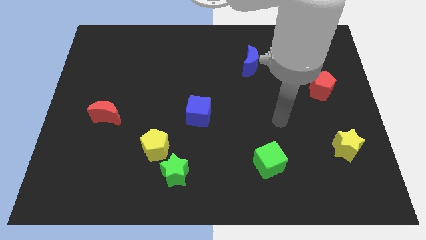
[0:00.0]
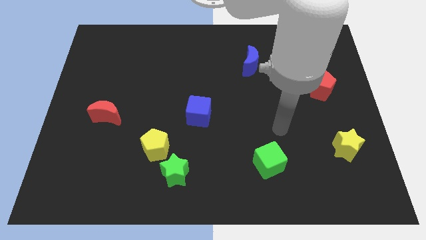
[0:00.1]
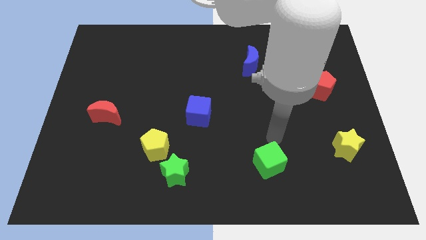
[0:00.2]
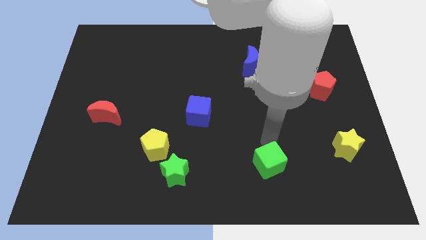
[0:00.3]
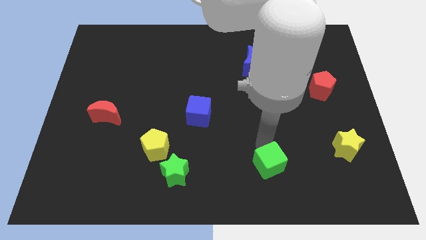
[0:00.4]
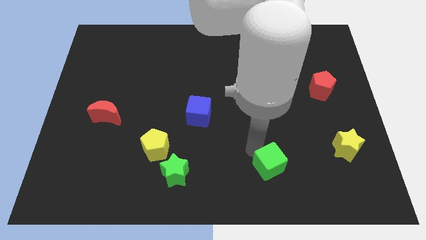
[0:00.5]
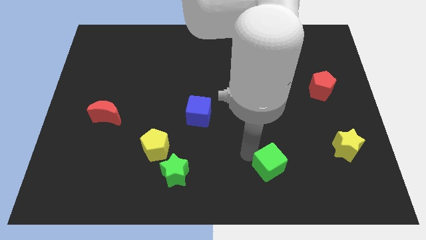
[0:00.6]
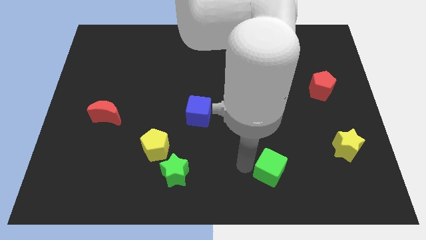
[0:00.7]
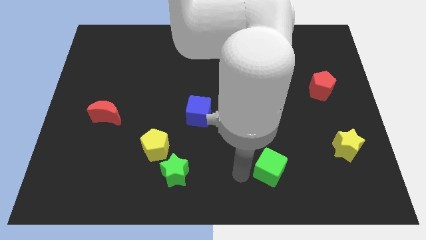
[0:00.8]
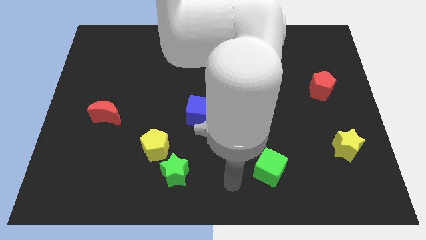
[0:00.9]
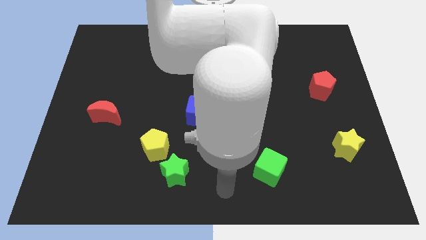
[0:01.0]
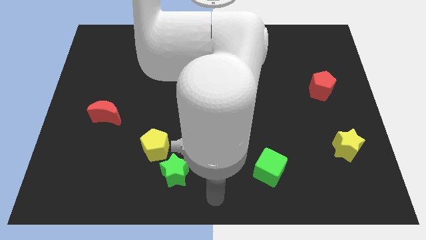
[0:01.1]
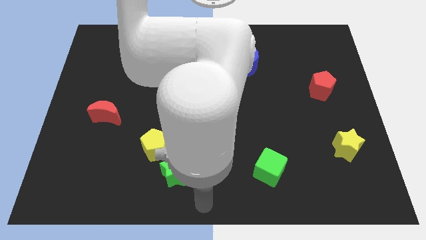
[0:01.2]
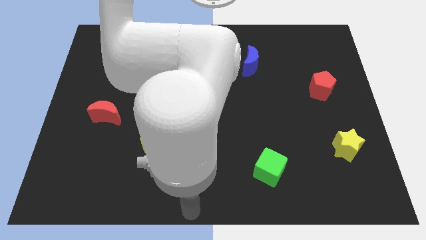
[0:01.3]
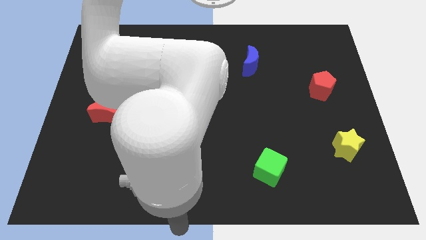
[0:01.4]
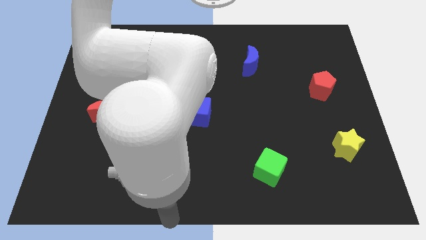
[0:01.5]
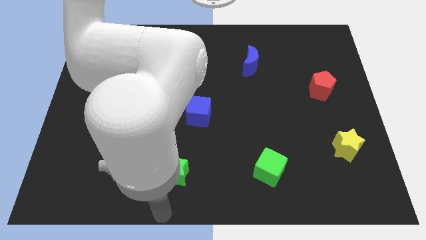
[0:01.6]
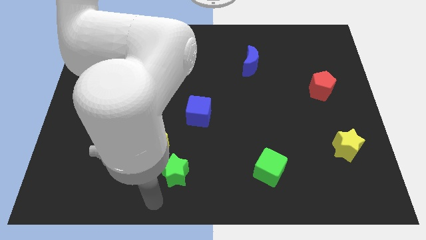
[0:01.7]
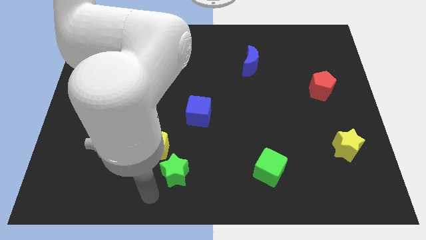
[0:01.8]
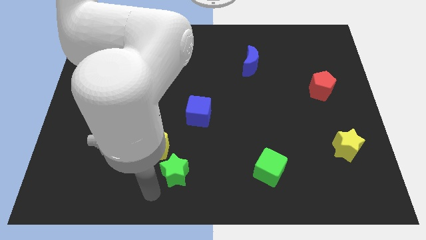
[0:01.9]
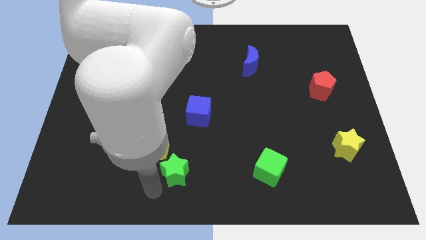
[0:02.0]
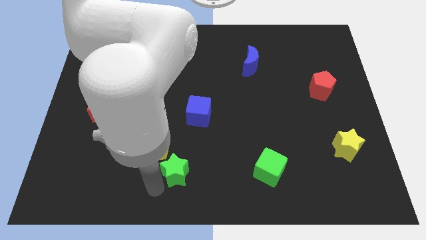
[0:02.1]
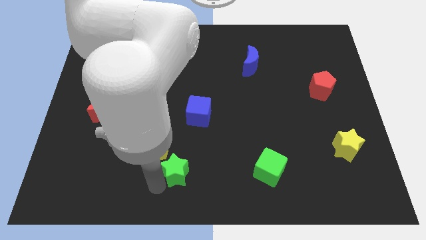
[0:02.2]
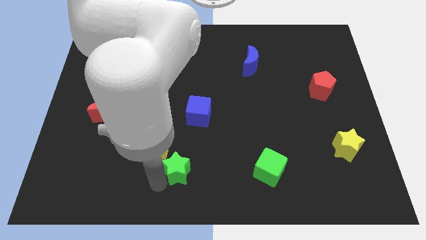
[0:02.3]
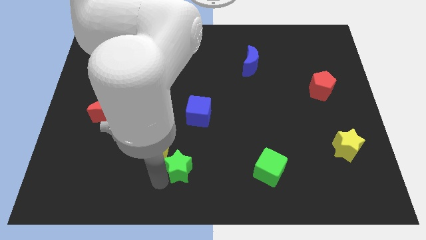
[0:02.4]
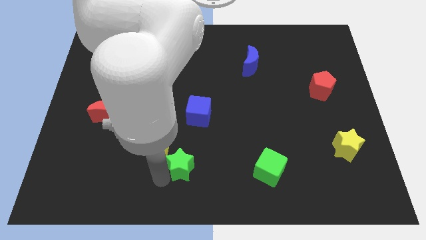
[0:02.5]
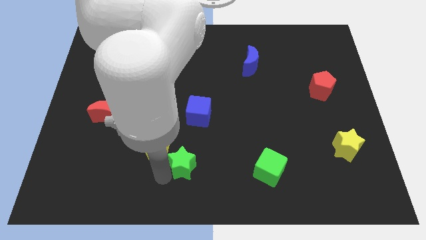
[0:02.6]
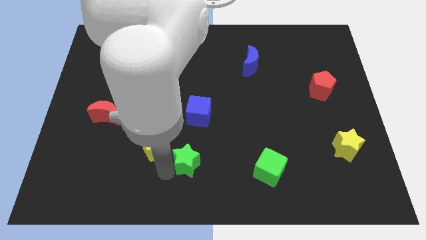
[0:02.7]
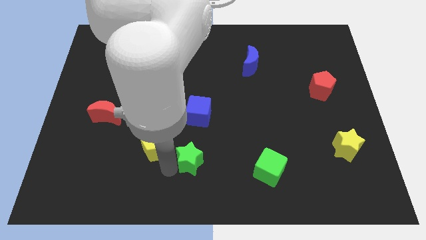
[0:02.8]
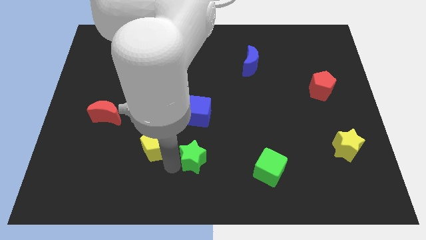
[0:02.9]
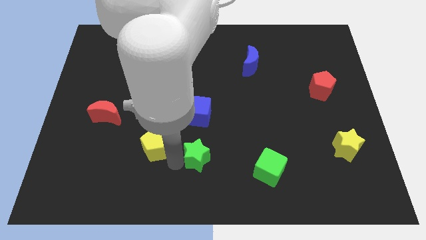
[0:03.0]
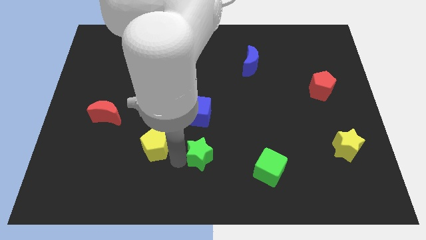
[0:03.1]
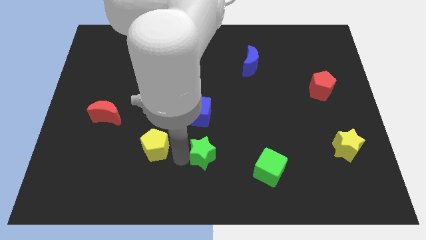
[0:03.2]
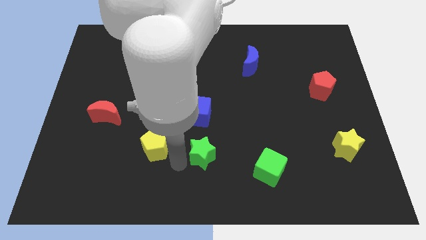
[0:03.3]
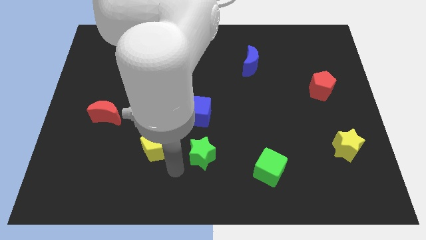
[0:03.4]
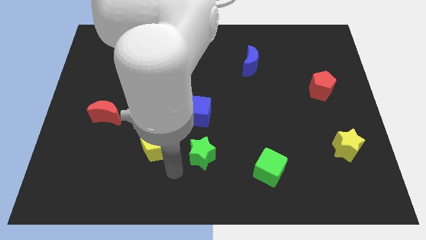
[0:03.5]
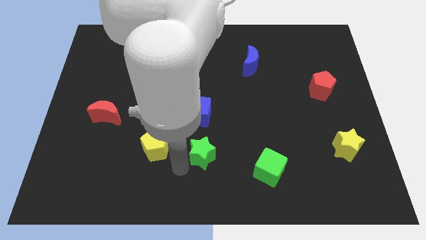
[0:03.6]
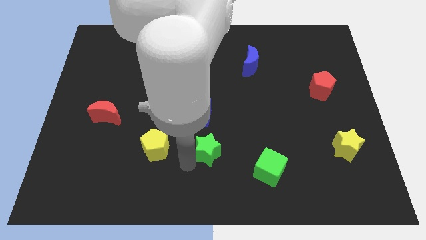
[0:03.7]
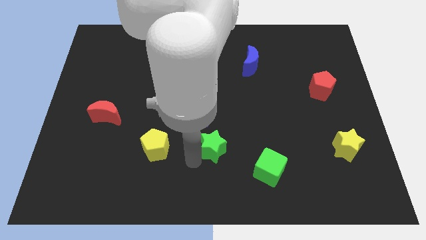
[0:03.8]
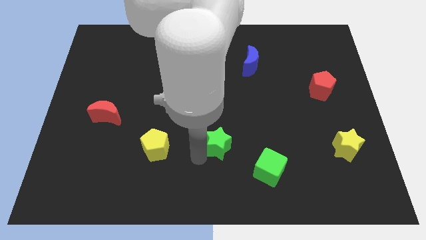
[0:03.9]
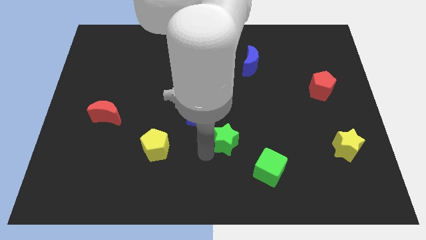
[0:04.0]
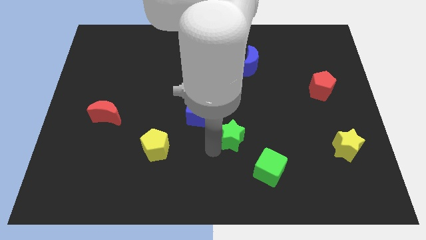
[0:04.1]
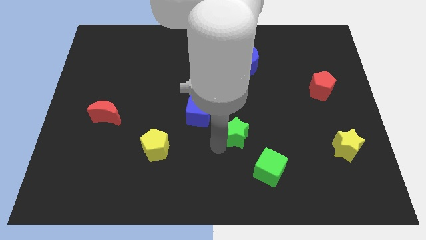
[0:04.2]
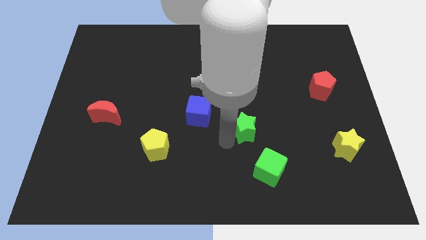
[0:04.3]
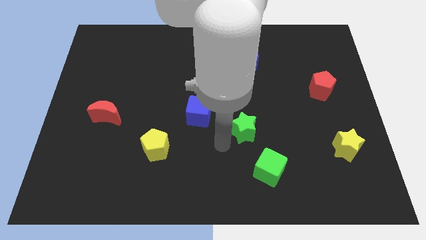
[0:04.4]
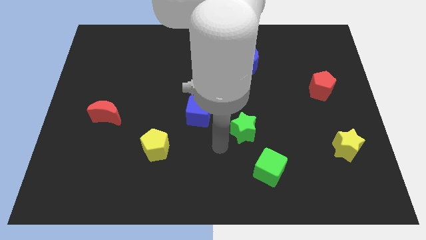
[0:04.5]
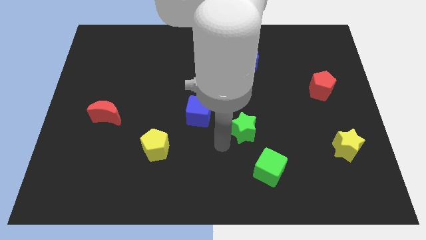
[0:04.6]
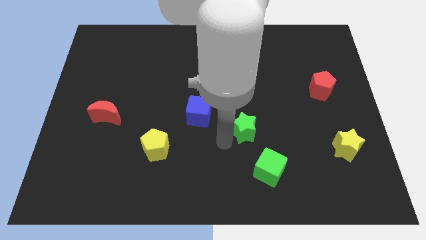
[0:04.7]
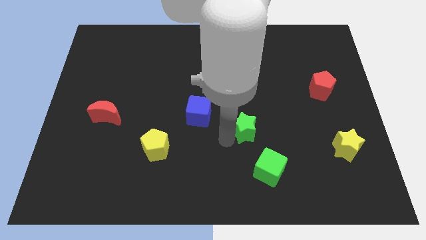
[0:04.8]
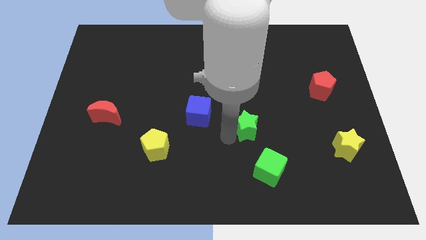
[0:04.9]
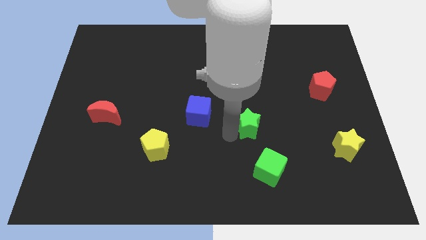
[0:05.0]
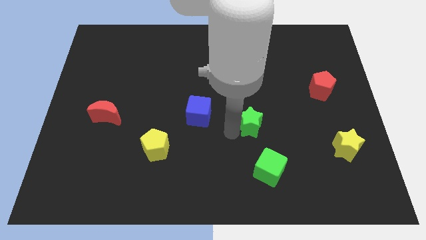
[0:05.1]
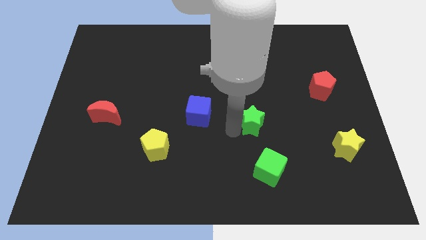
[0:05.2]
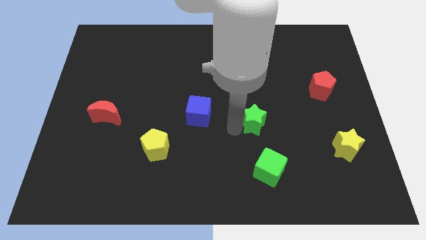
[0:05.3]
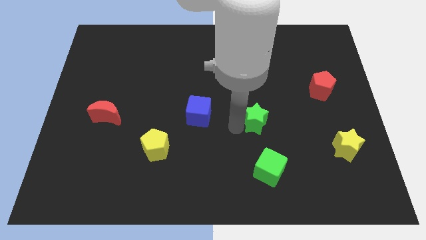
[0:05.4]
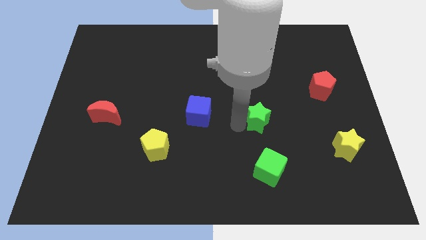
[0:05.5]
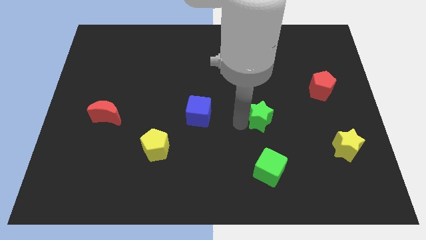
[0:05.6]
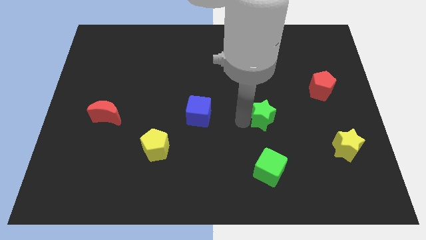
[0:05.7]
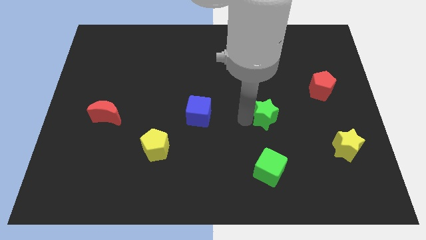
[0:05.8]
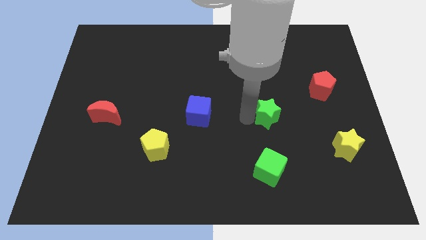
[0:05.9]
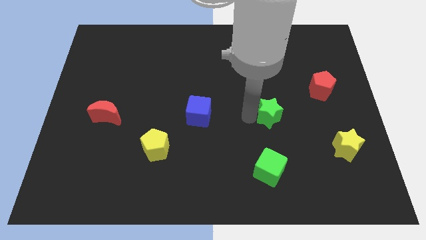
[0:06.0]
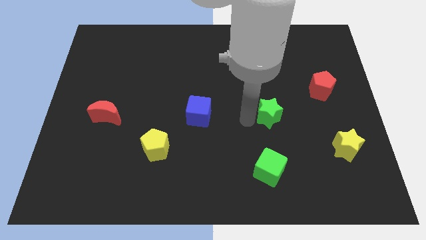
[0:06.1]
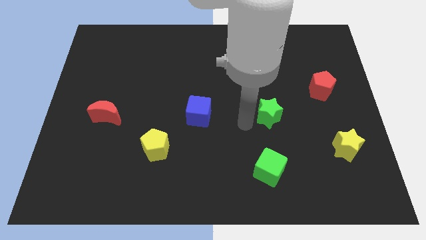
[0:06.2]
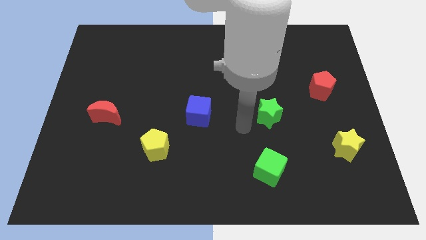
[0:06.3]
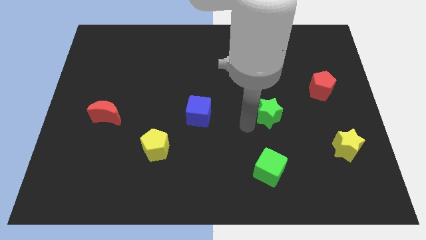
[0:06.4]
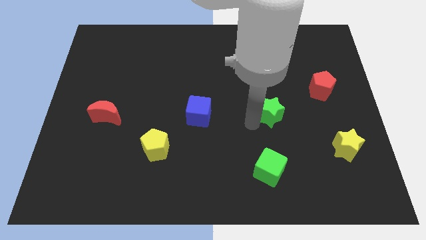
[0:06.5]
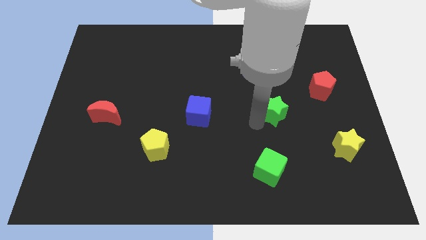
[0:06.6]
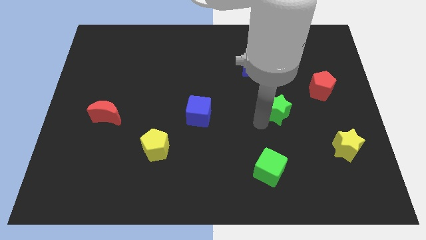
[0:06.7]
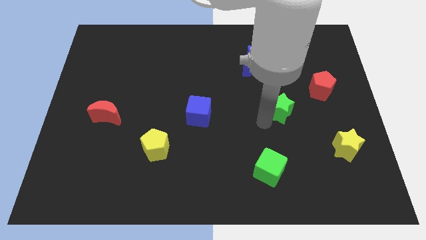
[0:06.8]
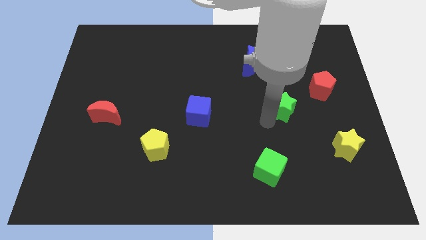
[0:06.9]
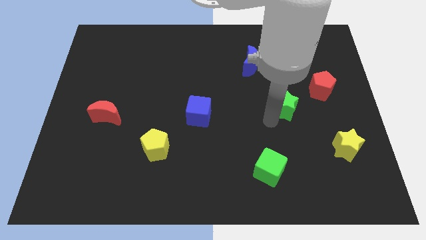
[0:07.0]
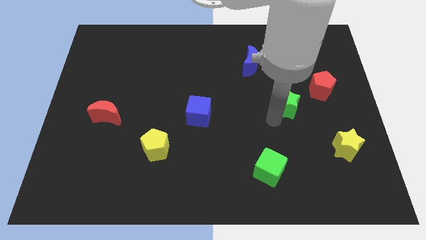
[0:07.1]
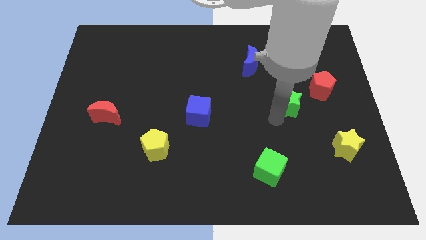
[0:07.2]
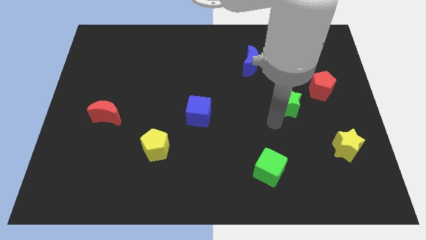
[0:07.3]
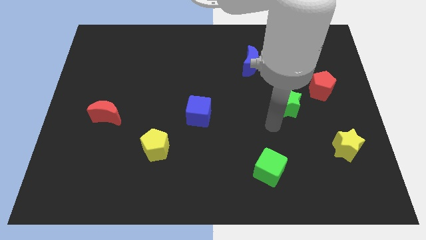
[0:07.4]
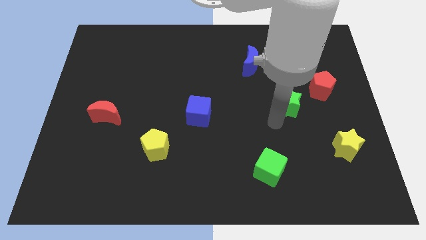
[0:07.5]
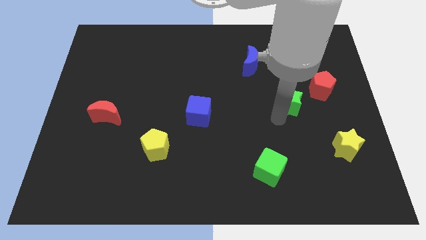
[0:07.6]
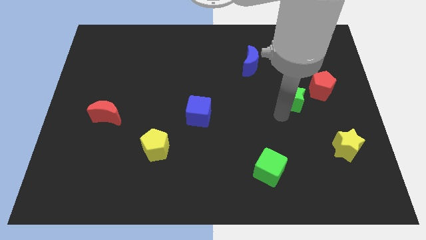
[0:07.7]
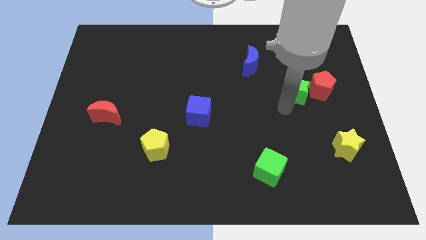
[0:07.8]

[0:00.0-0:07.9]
put the green star towards the red pentagon
